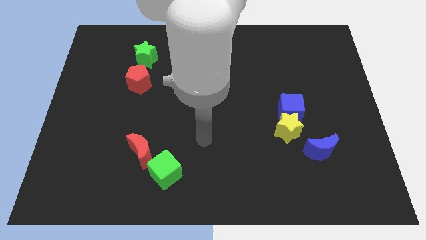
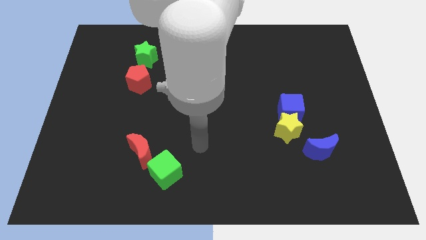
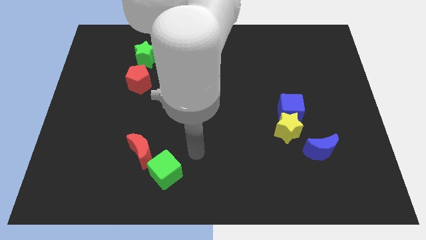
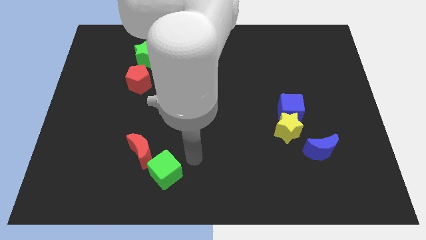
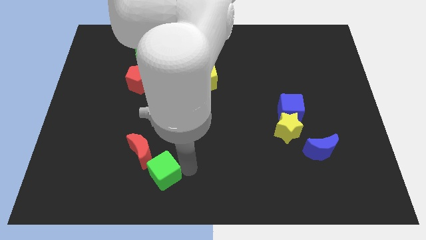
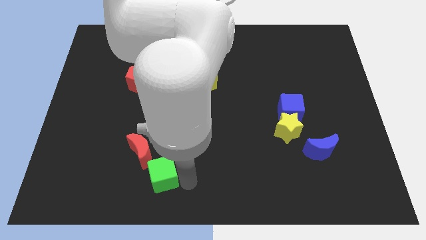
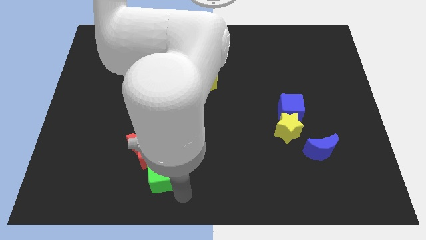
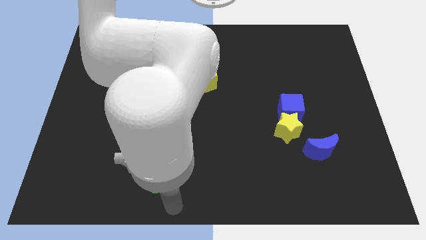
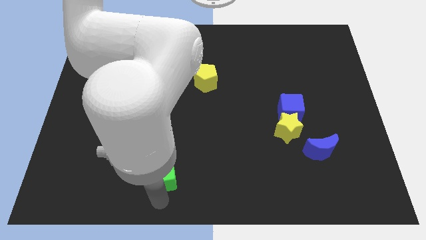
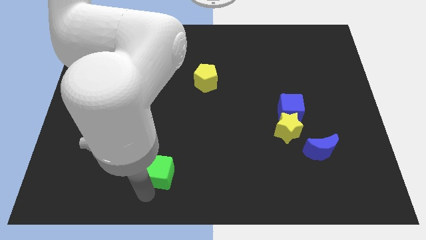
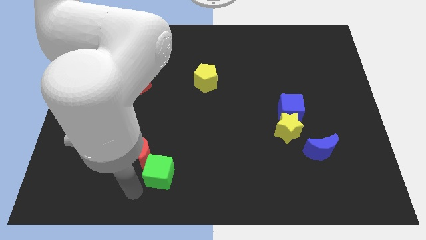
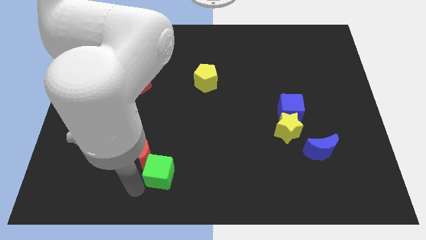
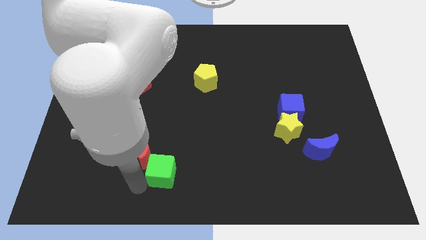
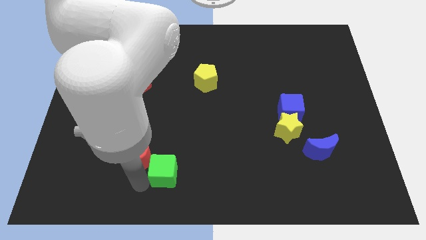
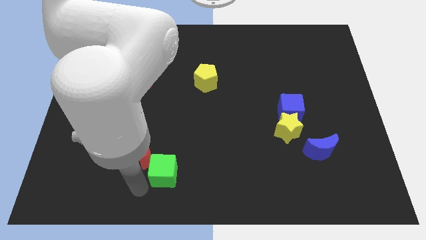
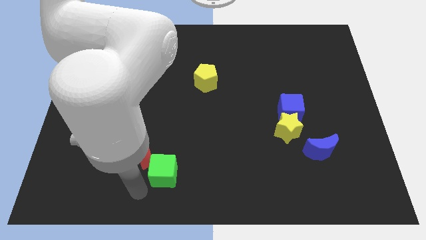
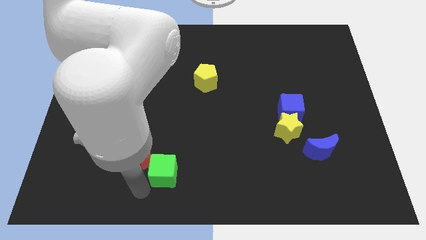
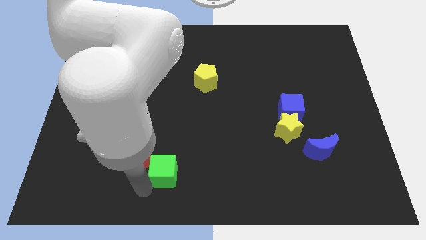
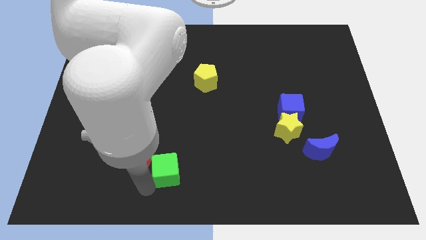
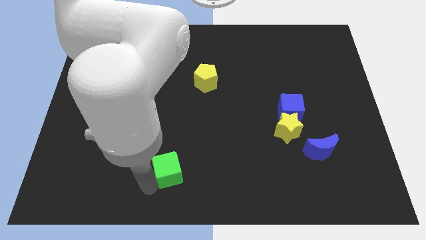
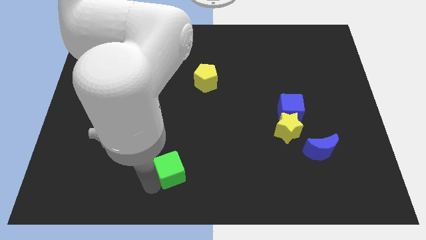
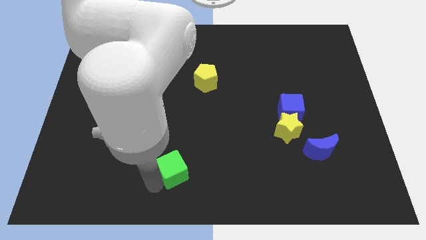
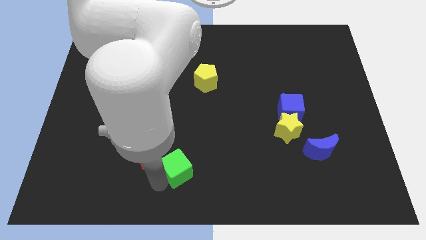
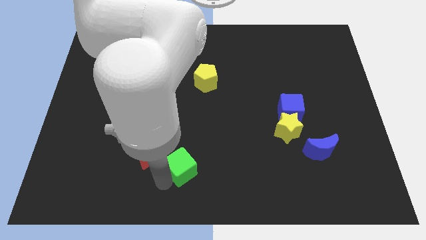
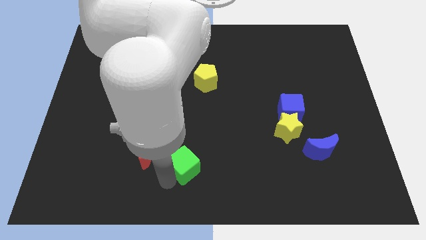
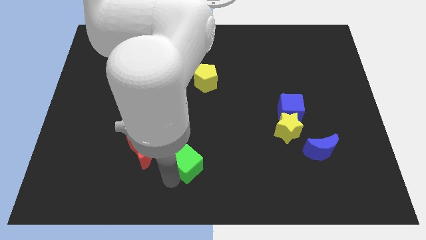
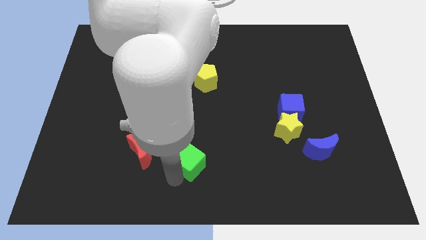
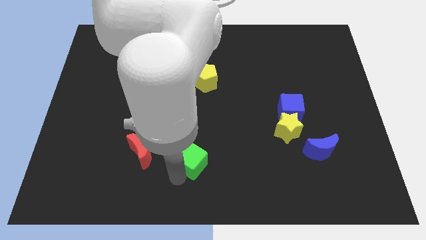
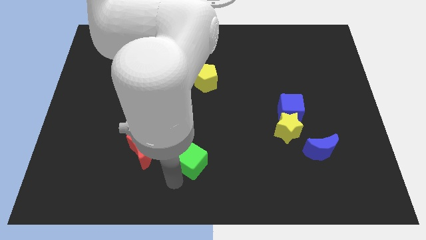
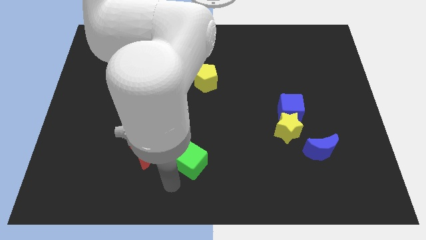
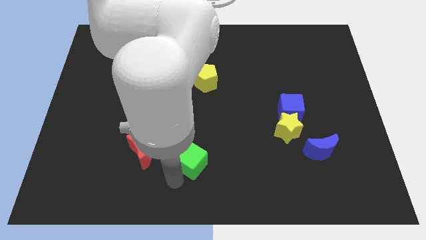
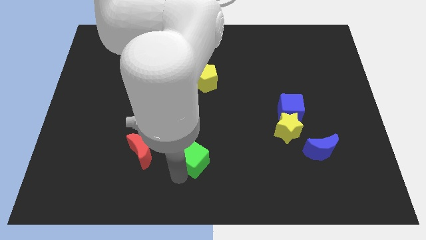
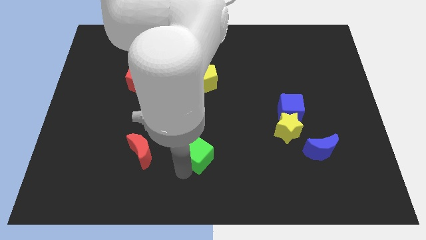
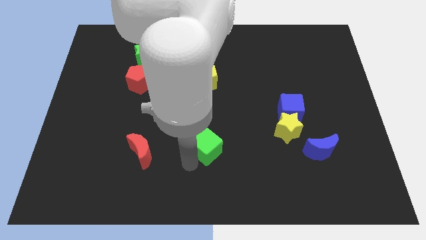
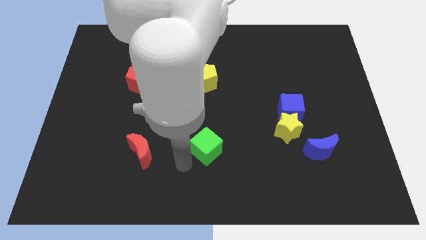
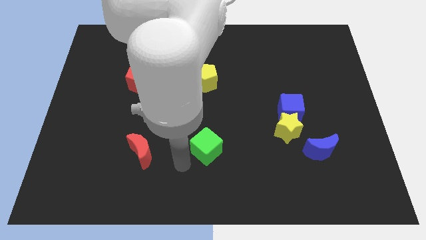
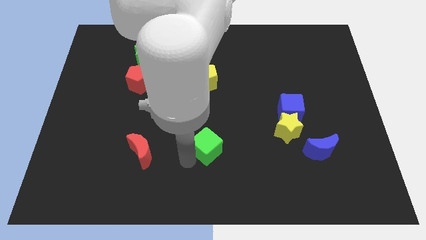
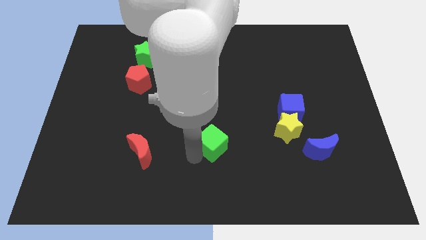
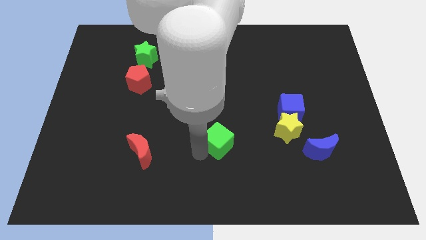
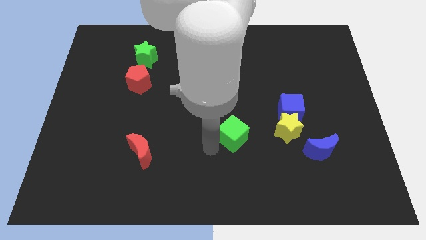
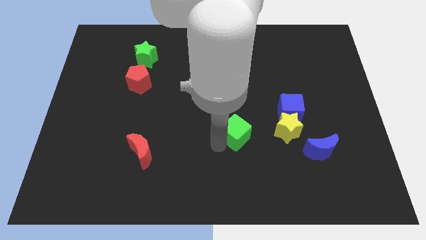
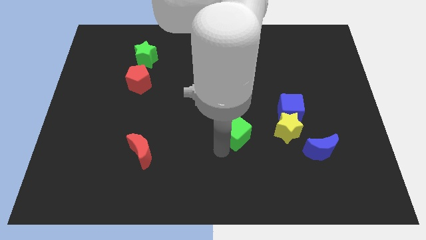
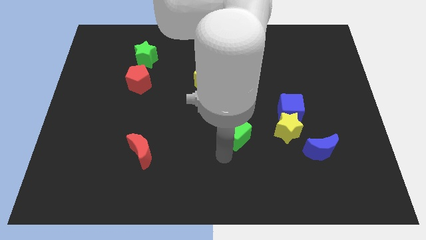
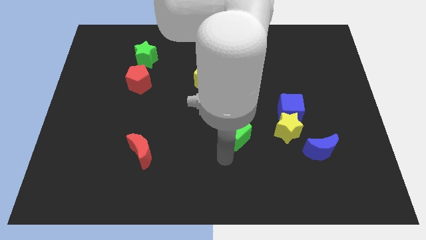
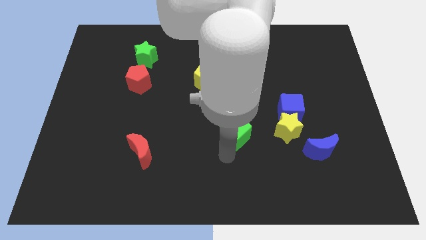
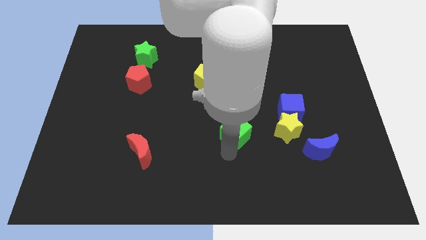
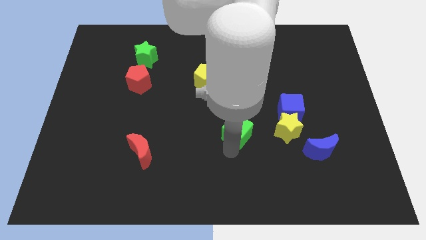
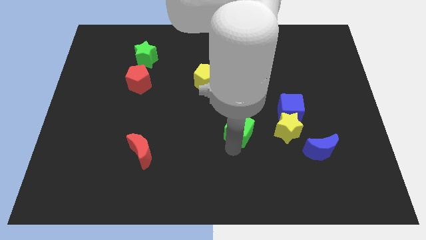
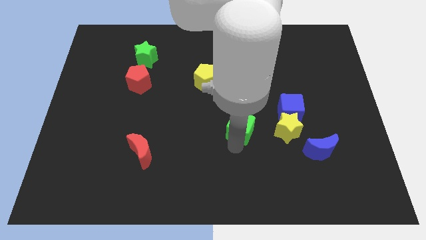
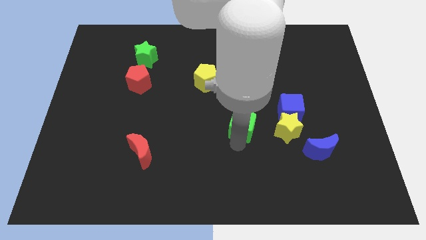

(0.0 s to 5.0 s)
push the green cube to the left side of the blue cube

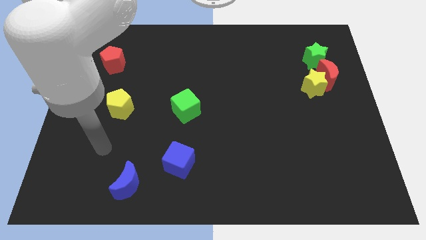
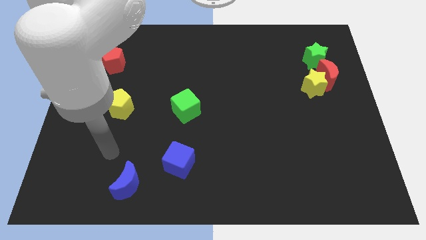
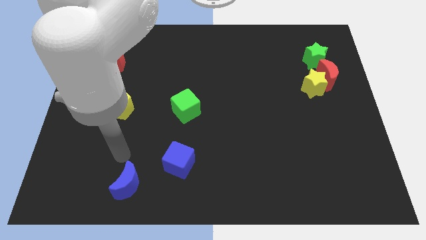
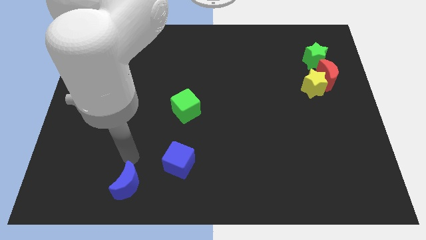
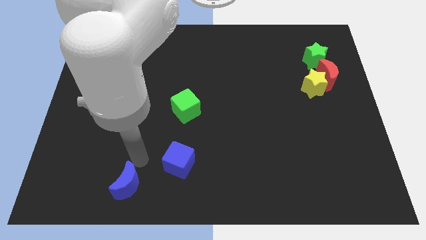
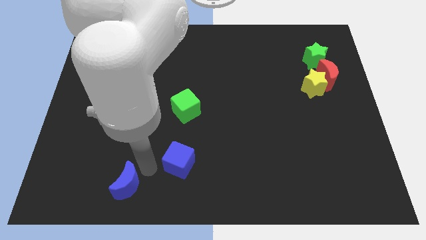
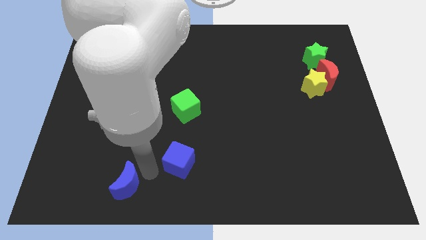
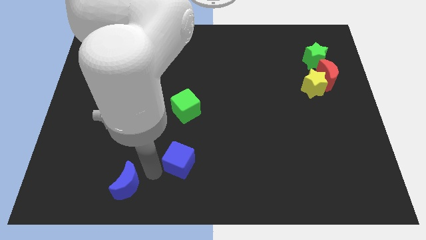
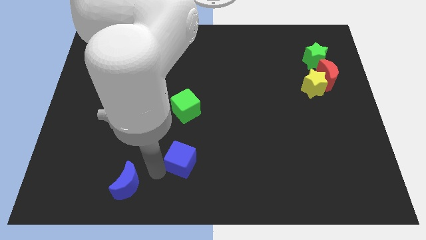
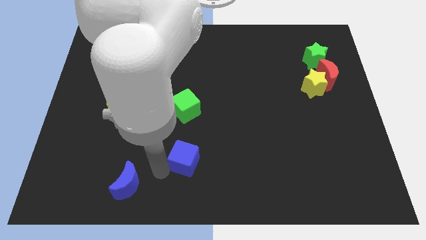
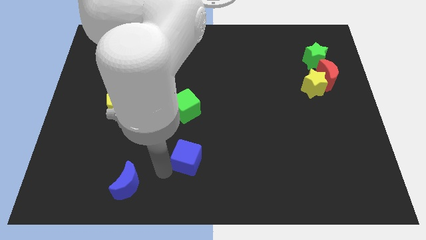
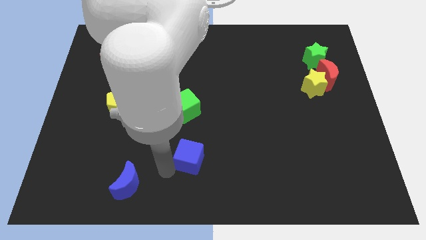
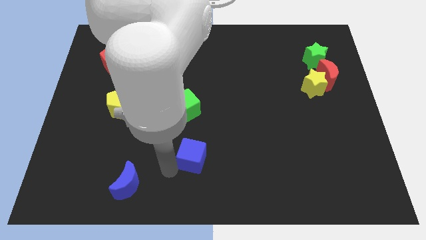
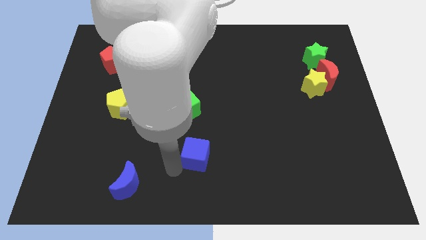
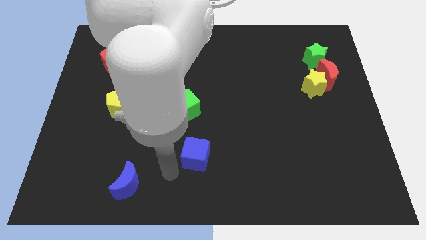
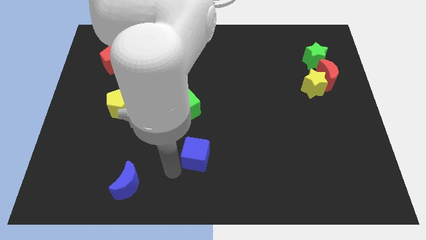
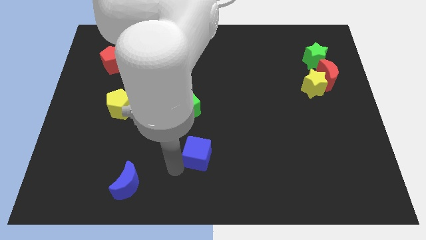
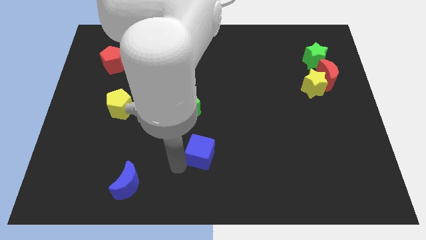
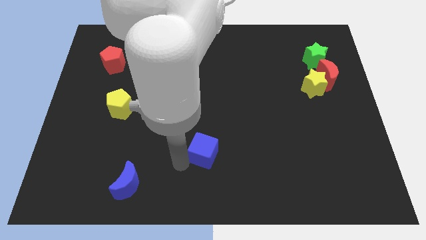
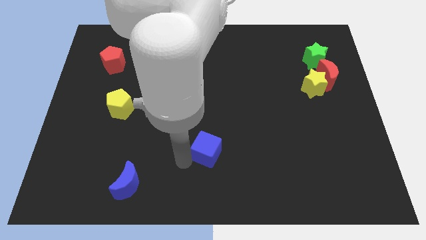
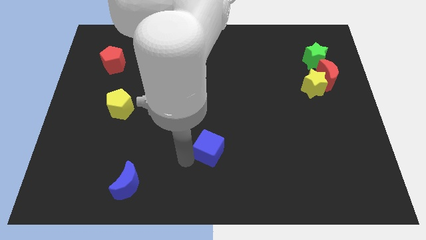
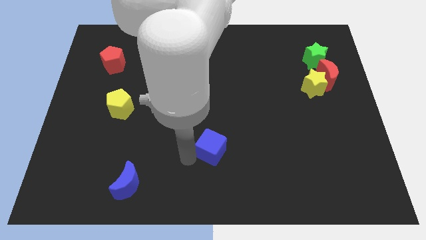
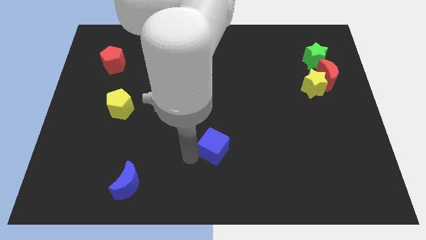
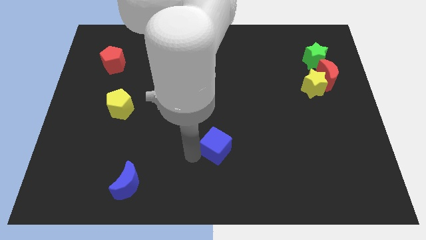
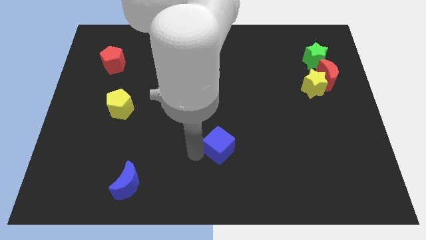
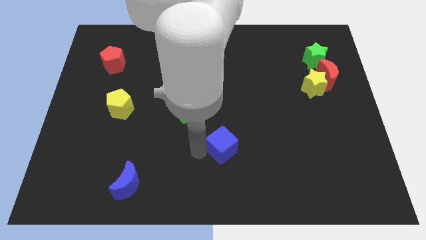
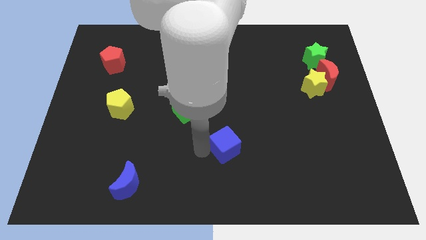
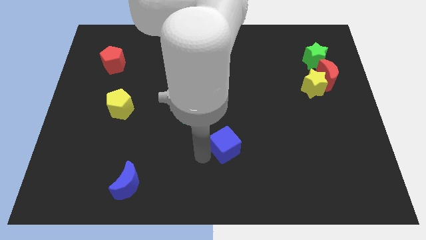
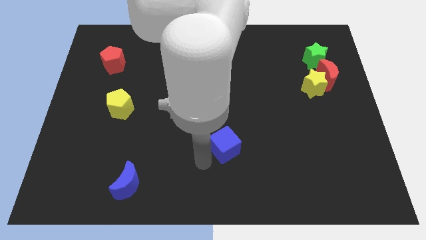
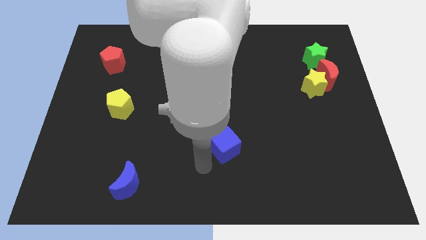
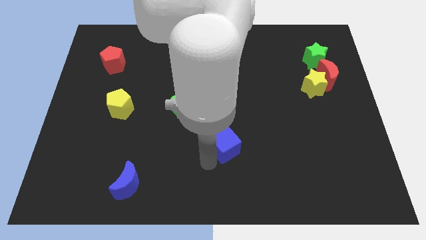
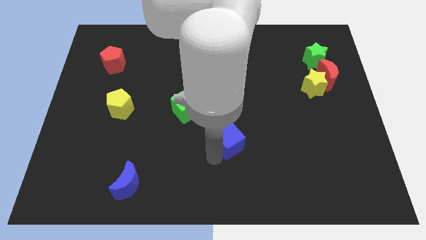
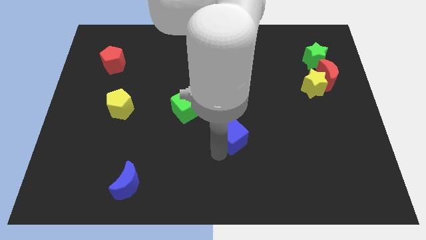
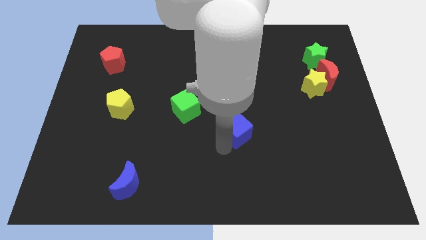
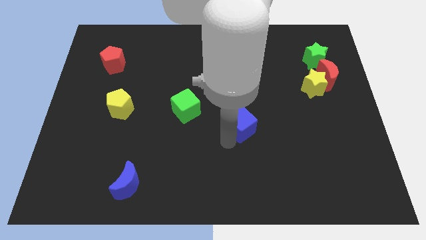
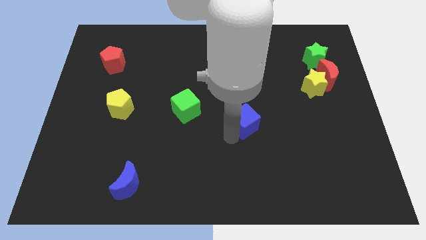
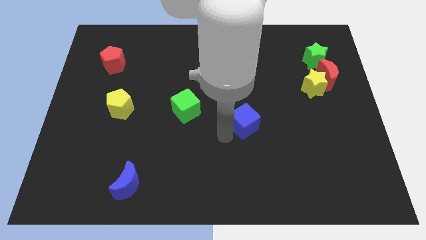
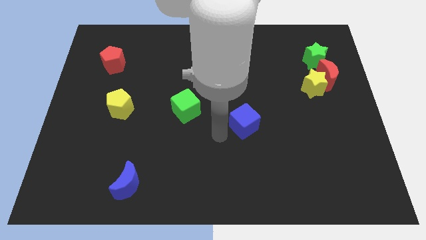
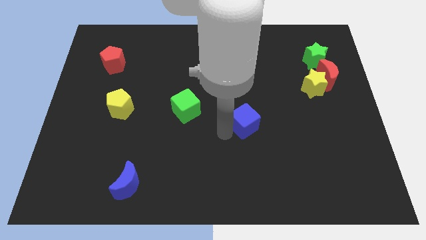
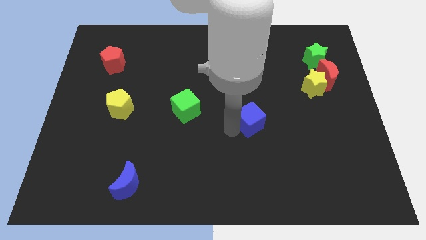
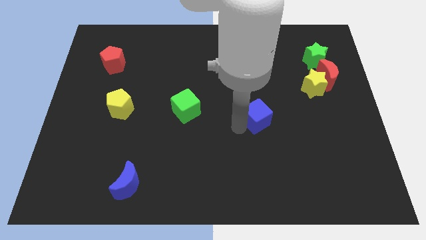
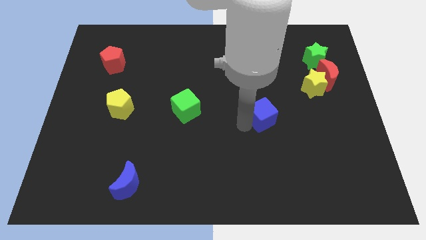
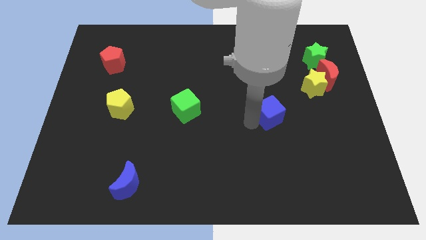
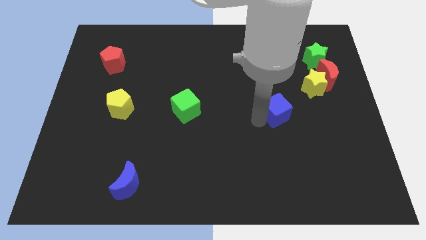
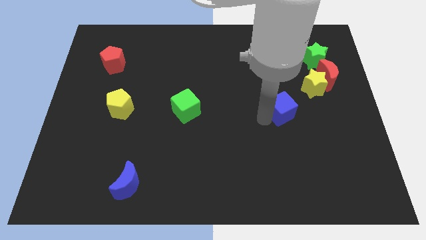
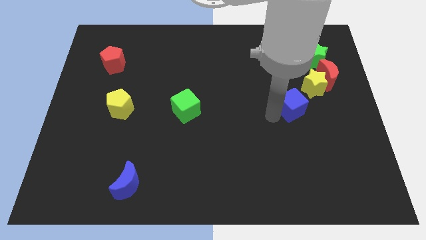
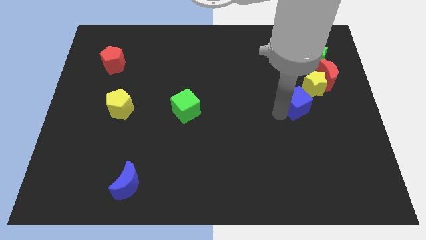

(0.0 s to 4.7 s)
slide the blue cube to the bottom left of the red moon
